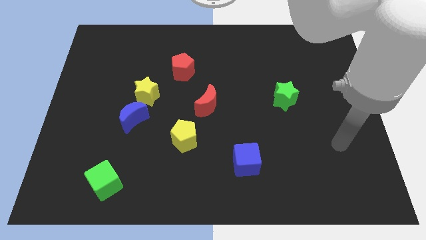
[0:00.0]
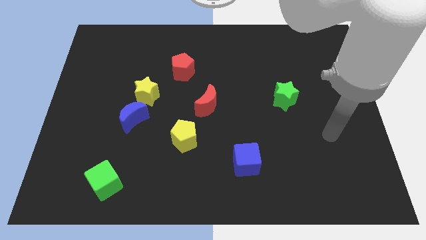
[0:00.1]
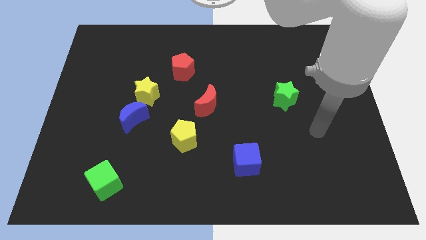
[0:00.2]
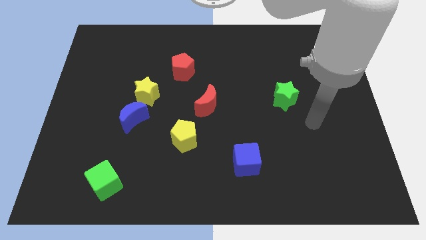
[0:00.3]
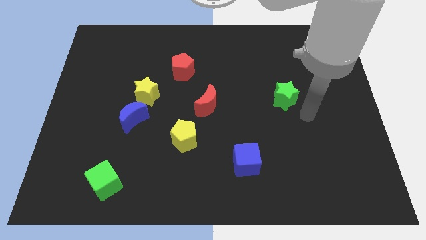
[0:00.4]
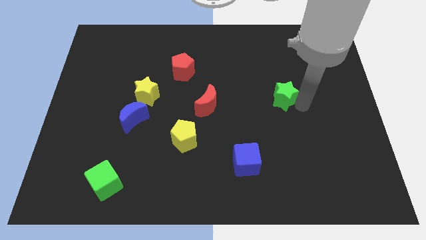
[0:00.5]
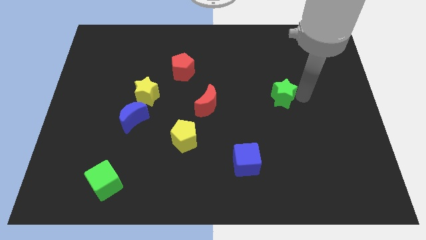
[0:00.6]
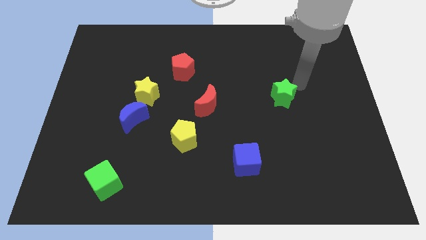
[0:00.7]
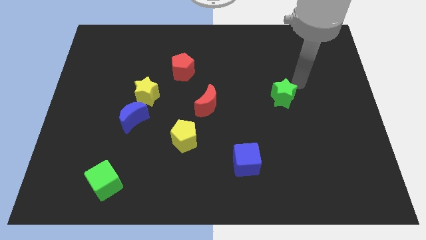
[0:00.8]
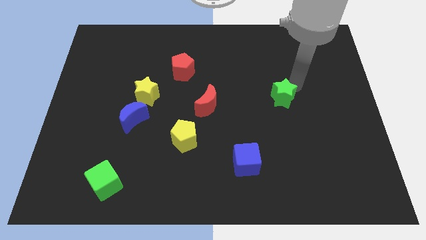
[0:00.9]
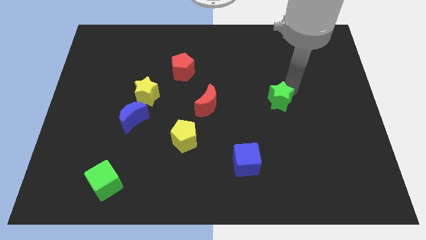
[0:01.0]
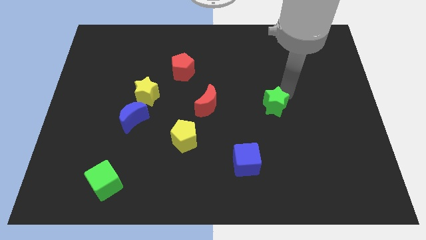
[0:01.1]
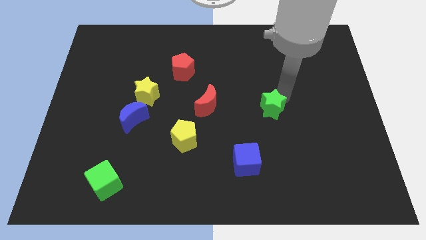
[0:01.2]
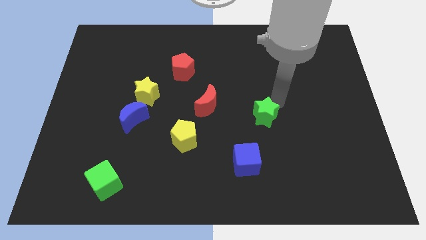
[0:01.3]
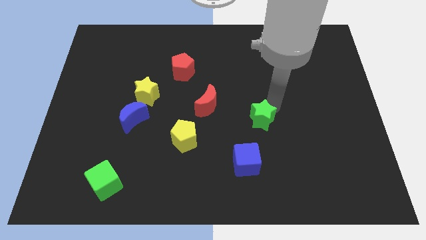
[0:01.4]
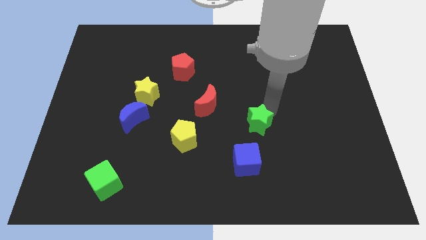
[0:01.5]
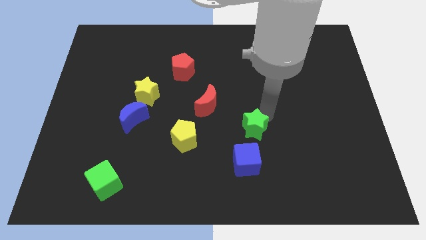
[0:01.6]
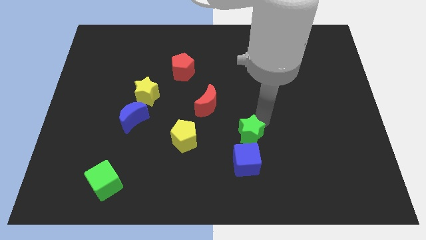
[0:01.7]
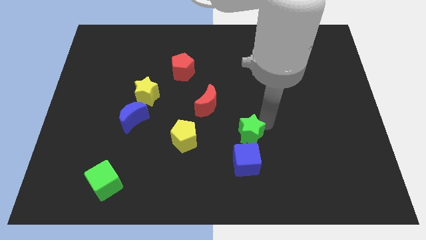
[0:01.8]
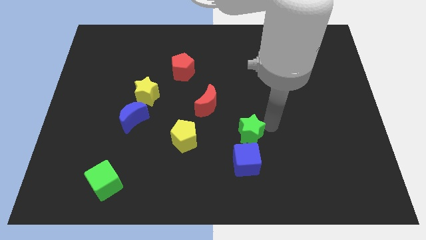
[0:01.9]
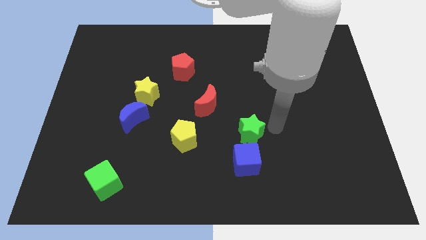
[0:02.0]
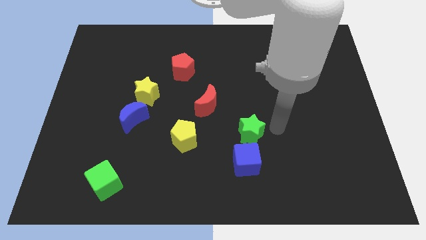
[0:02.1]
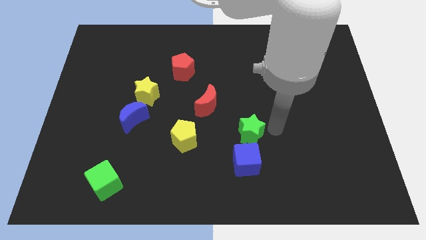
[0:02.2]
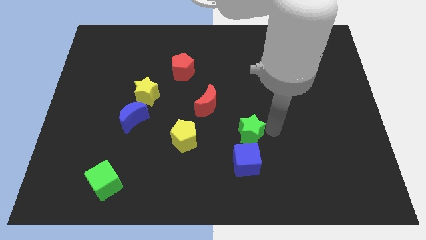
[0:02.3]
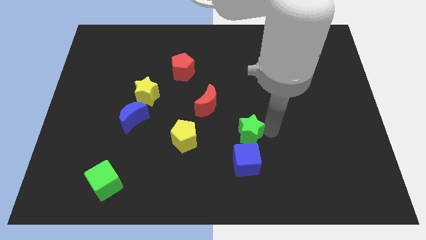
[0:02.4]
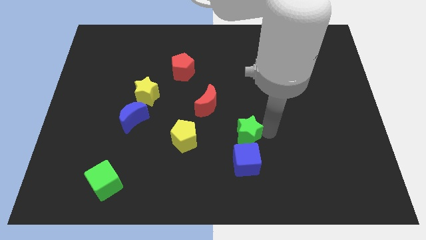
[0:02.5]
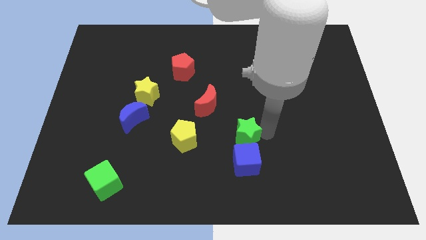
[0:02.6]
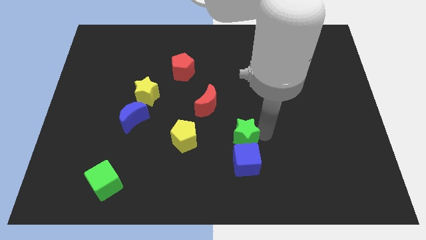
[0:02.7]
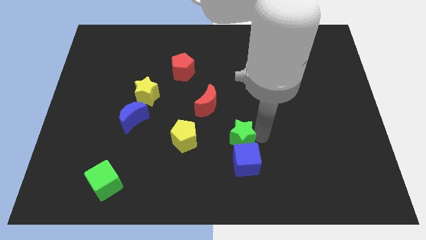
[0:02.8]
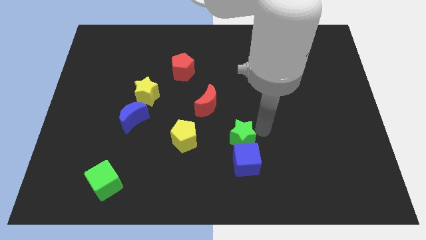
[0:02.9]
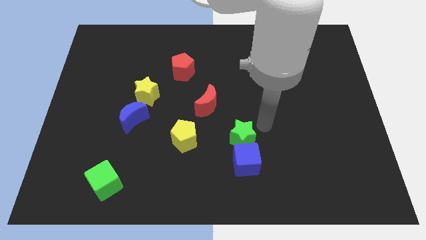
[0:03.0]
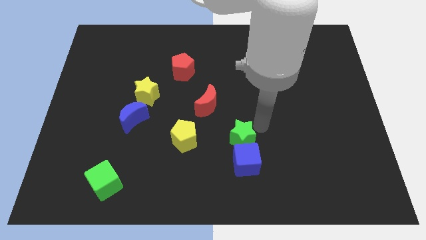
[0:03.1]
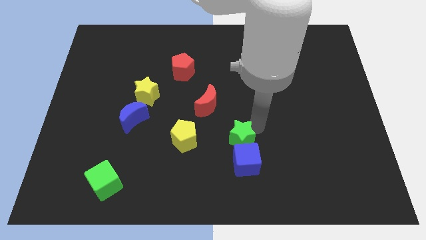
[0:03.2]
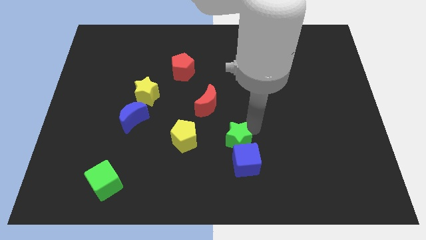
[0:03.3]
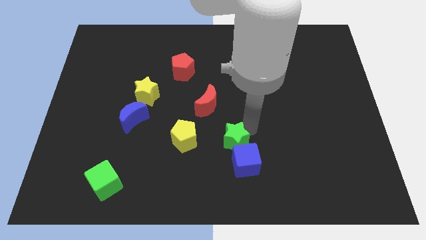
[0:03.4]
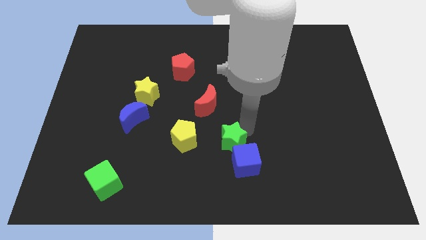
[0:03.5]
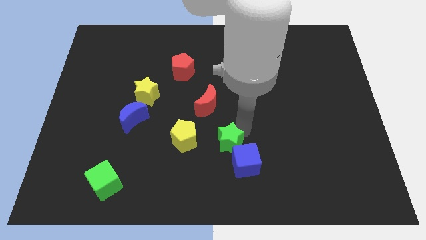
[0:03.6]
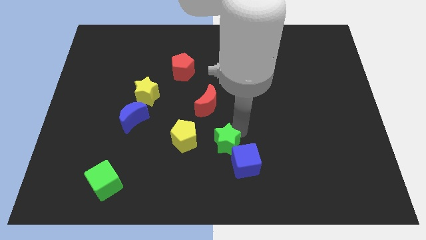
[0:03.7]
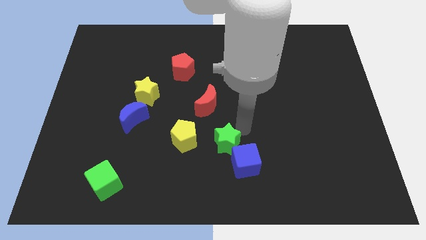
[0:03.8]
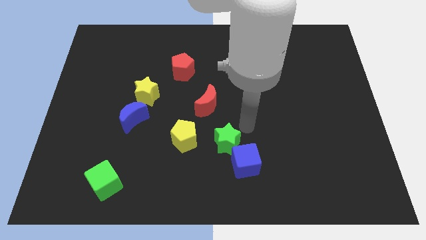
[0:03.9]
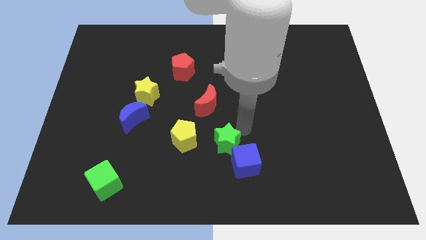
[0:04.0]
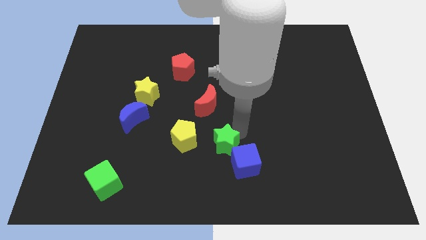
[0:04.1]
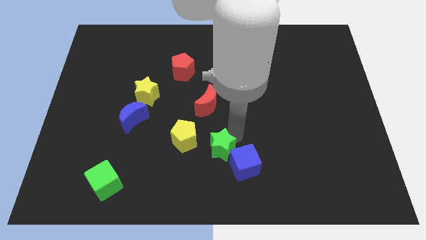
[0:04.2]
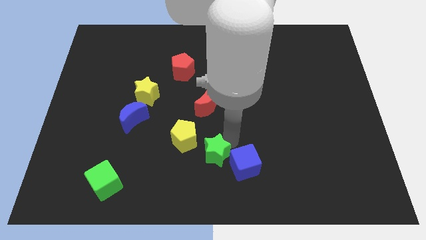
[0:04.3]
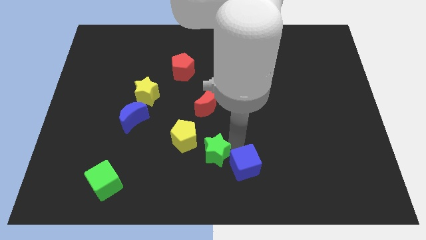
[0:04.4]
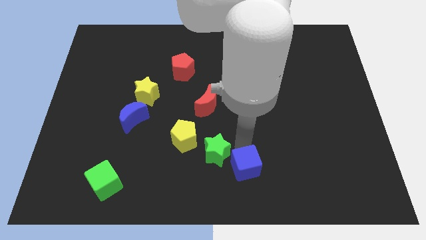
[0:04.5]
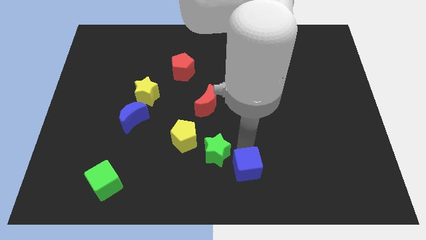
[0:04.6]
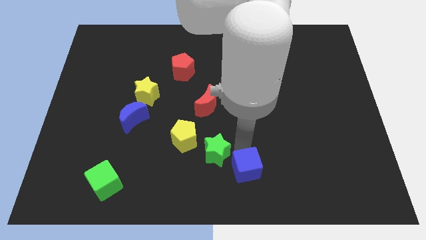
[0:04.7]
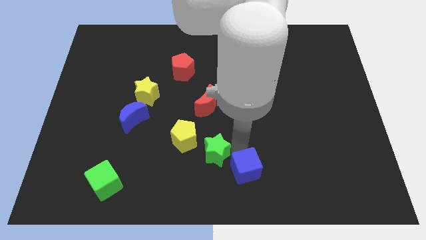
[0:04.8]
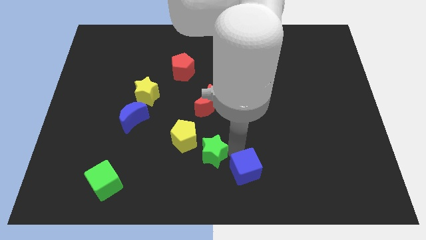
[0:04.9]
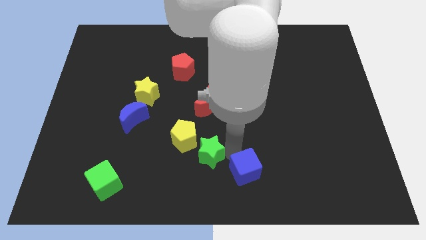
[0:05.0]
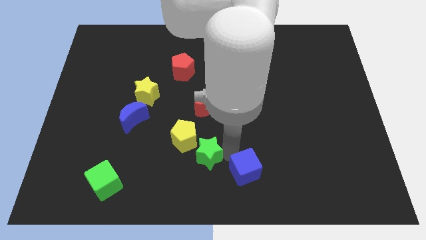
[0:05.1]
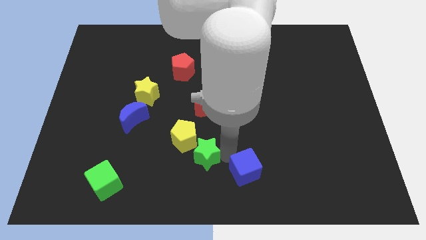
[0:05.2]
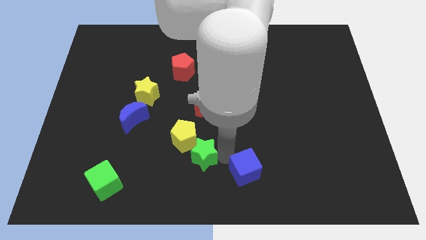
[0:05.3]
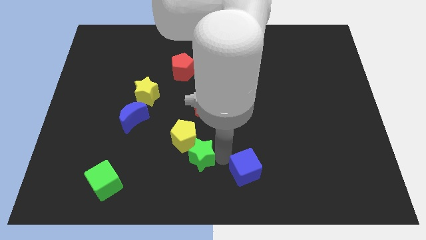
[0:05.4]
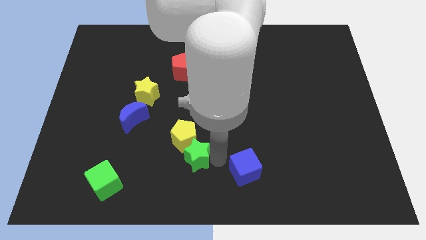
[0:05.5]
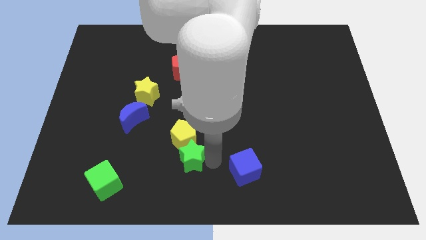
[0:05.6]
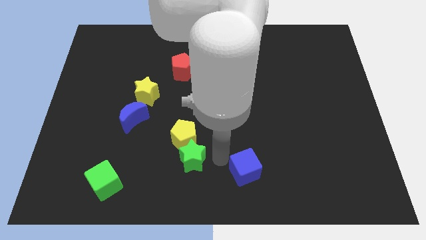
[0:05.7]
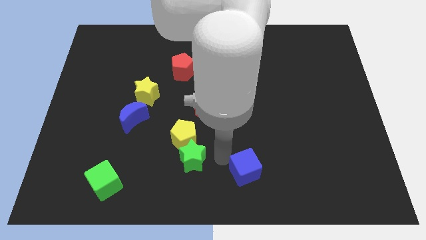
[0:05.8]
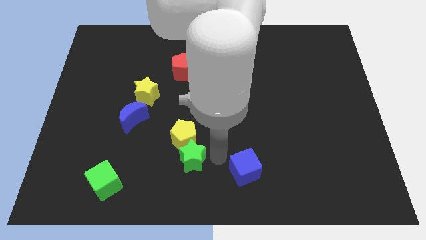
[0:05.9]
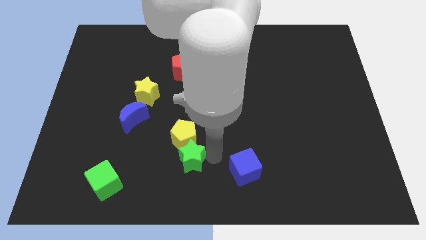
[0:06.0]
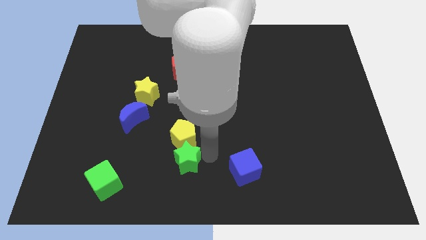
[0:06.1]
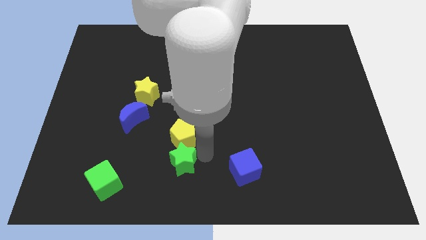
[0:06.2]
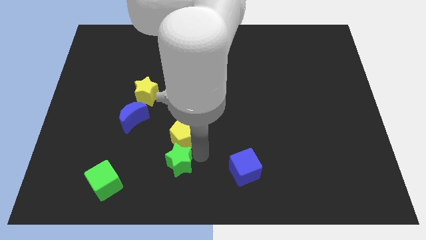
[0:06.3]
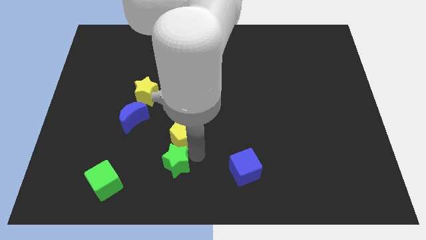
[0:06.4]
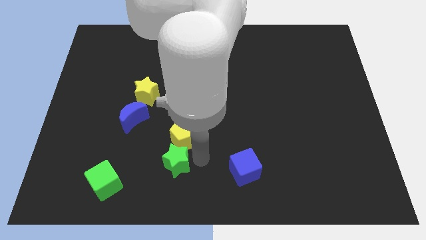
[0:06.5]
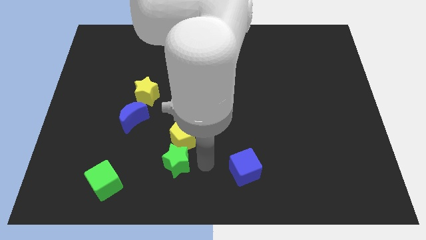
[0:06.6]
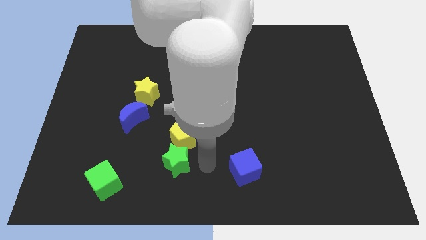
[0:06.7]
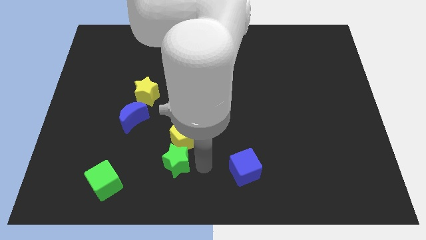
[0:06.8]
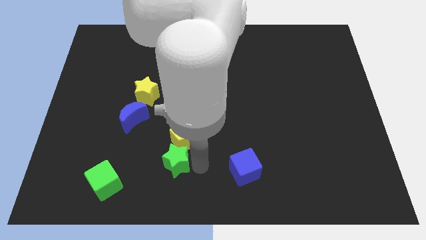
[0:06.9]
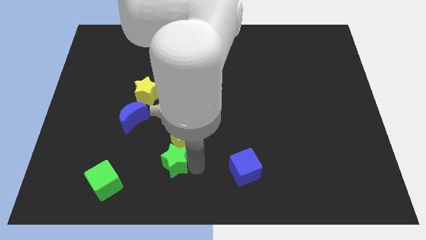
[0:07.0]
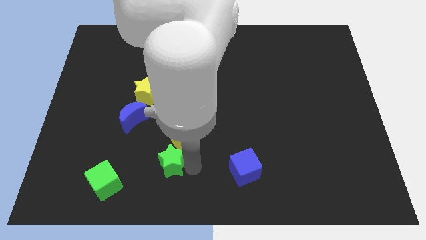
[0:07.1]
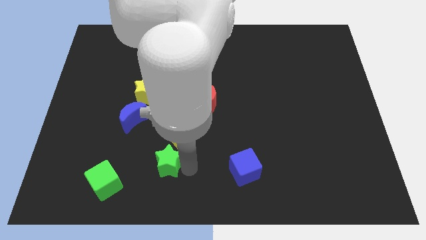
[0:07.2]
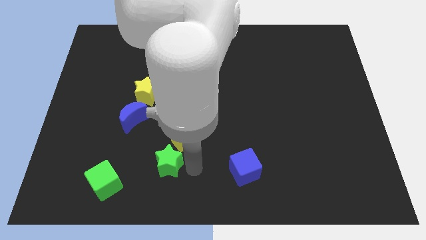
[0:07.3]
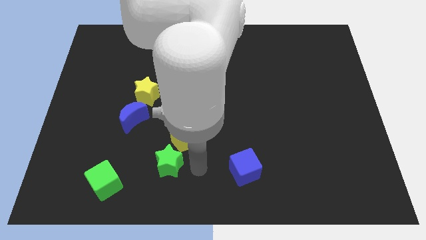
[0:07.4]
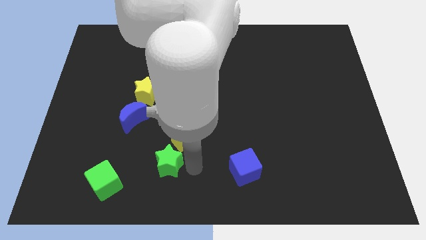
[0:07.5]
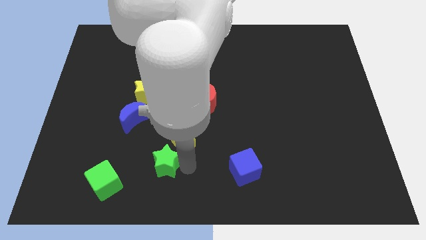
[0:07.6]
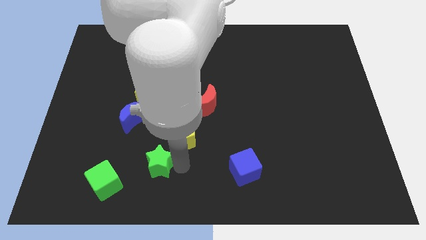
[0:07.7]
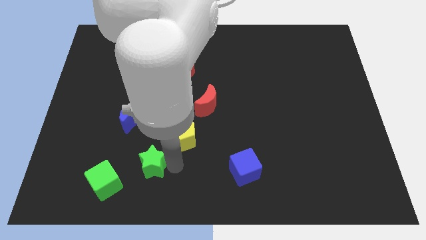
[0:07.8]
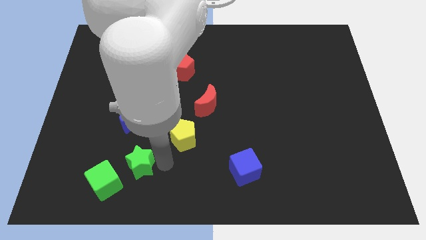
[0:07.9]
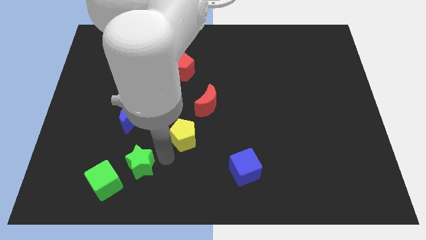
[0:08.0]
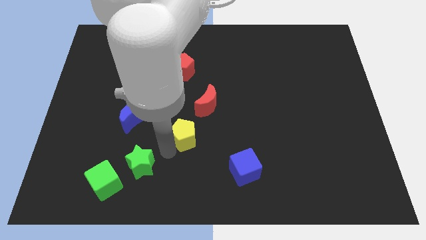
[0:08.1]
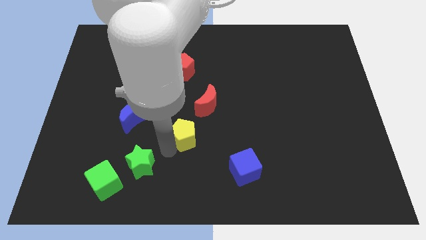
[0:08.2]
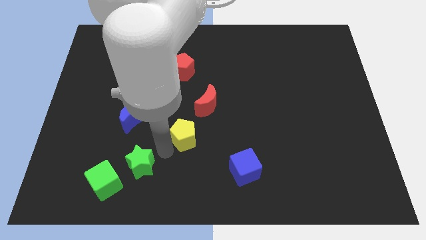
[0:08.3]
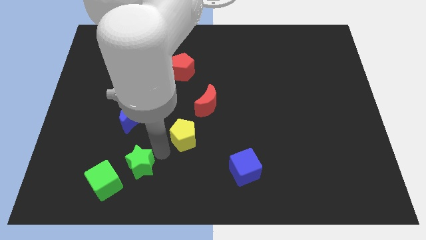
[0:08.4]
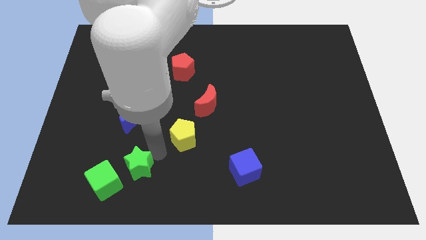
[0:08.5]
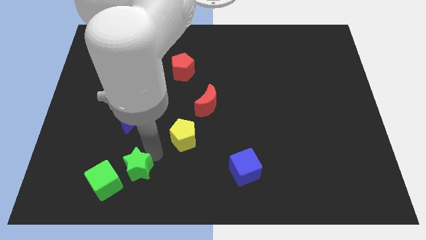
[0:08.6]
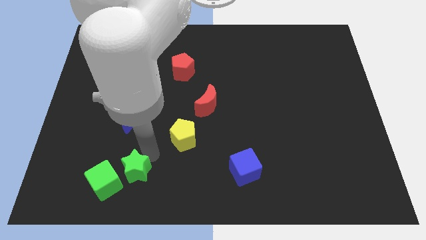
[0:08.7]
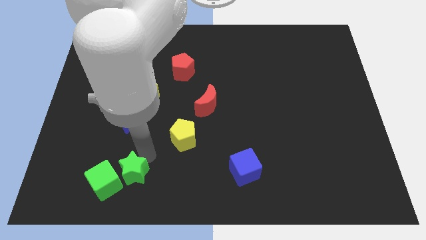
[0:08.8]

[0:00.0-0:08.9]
slide the green star next to the green cube
